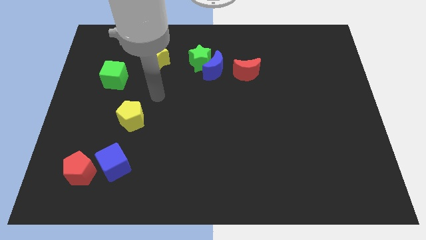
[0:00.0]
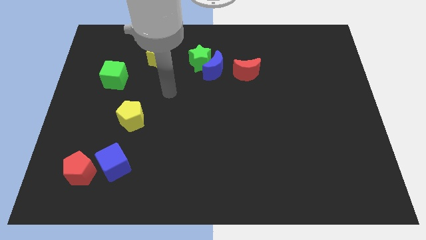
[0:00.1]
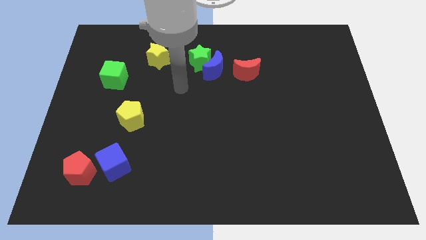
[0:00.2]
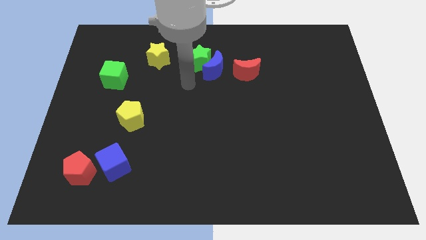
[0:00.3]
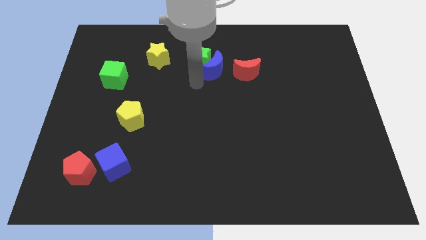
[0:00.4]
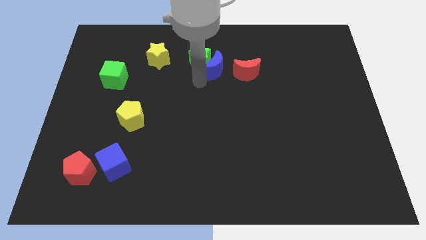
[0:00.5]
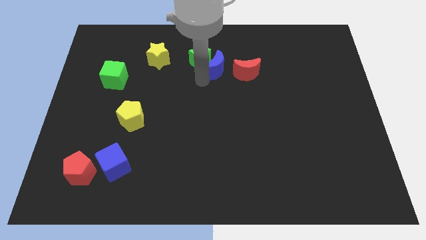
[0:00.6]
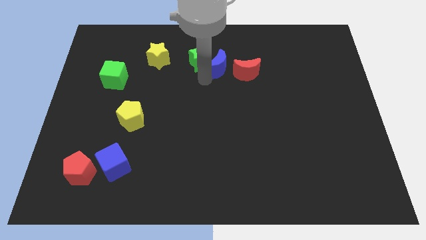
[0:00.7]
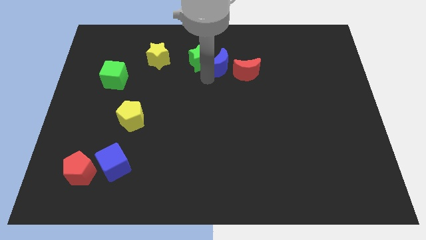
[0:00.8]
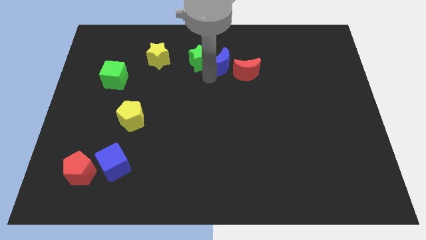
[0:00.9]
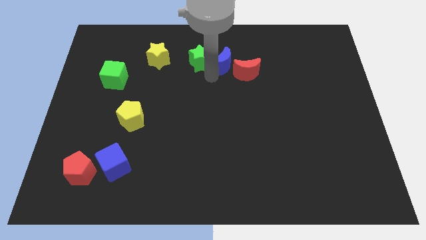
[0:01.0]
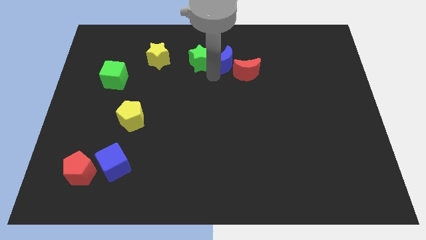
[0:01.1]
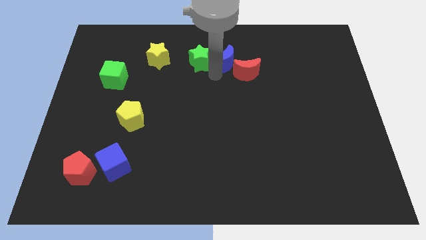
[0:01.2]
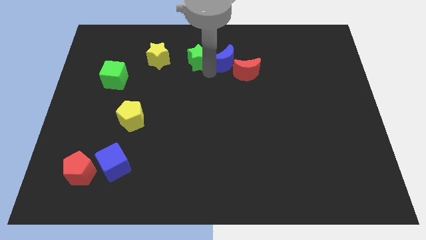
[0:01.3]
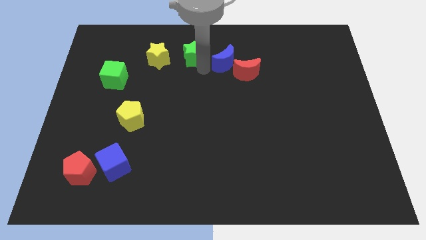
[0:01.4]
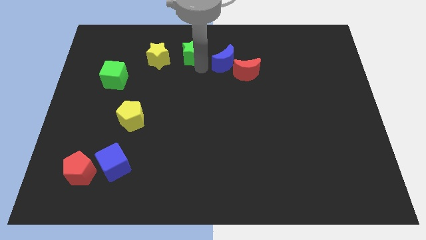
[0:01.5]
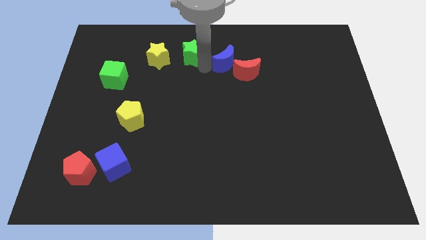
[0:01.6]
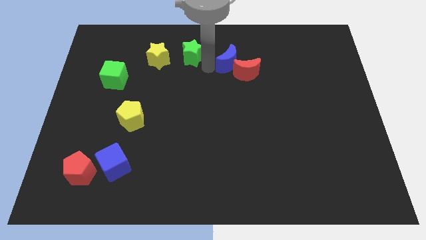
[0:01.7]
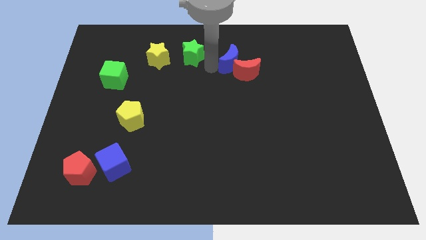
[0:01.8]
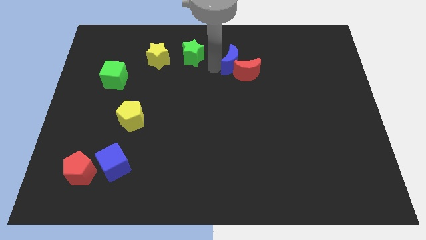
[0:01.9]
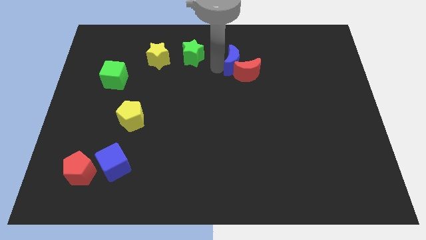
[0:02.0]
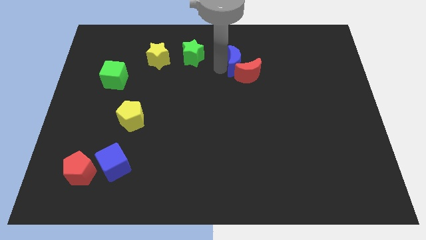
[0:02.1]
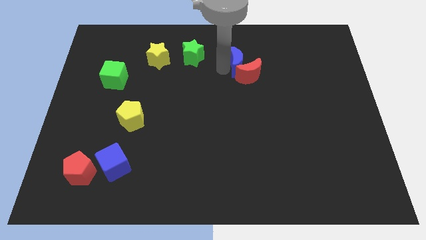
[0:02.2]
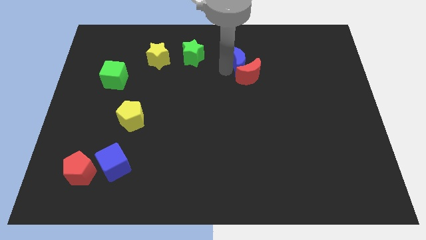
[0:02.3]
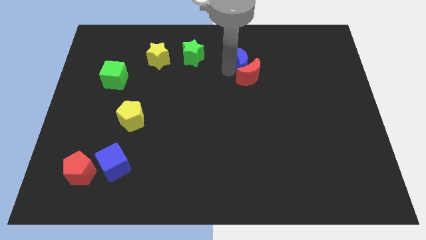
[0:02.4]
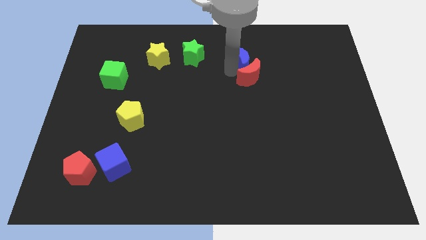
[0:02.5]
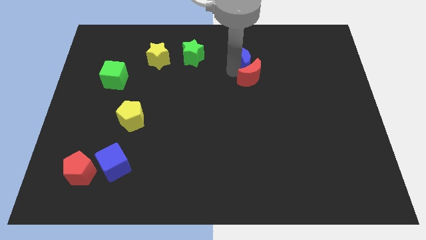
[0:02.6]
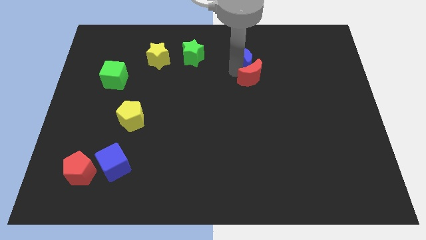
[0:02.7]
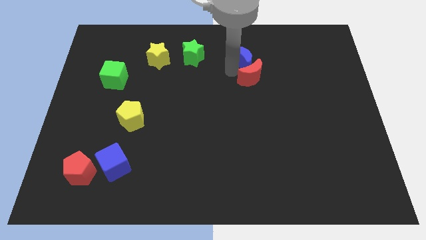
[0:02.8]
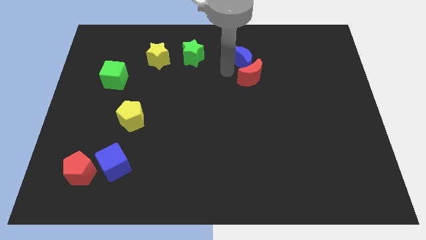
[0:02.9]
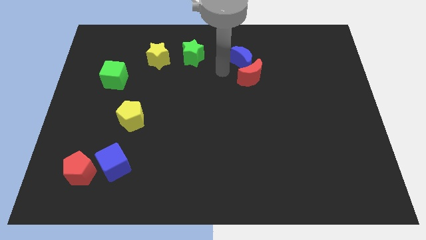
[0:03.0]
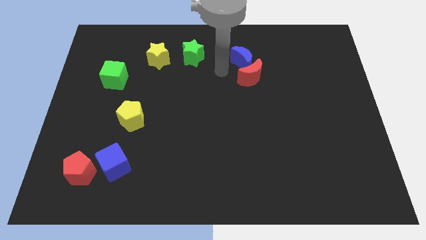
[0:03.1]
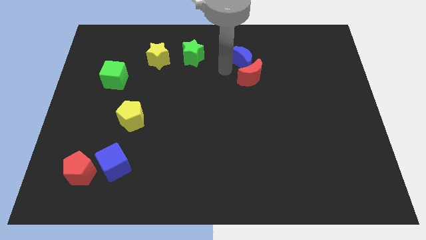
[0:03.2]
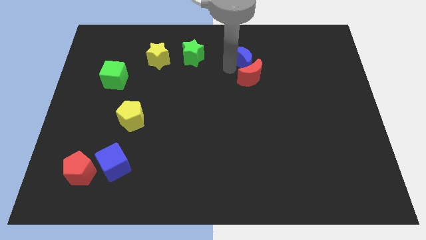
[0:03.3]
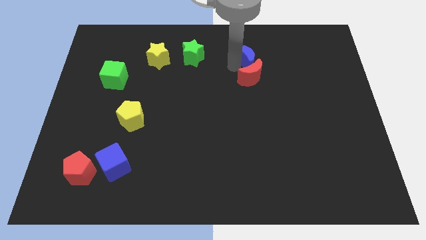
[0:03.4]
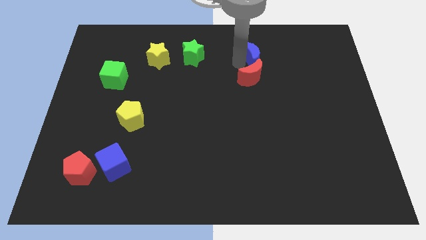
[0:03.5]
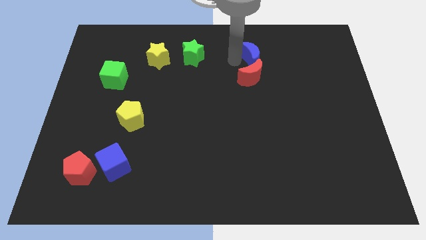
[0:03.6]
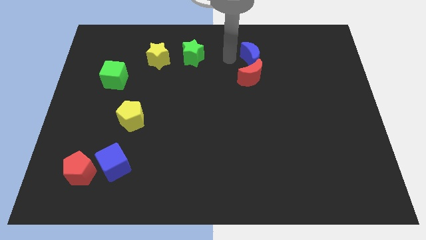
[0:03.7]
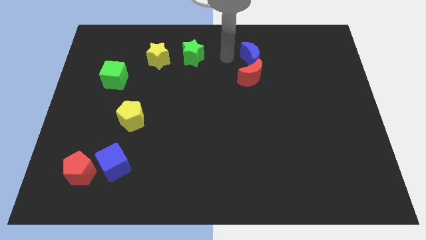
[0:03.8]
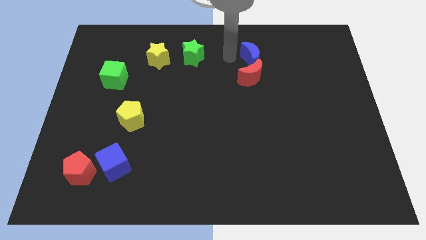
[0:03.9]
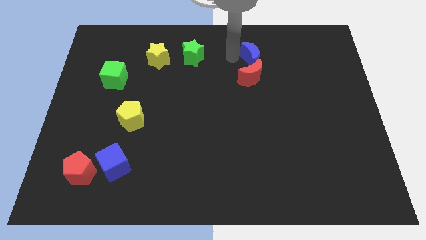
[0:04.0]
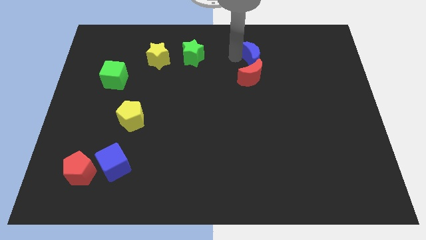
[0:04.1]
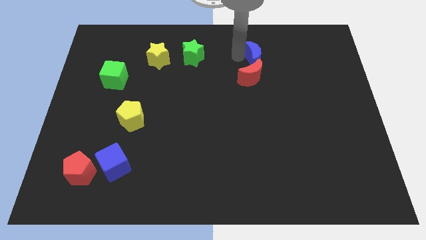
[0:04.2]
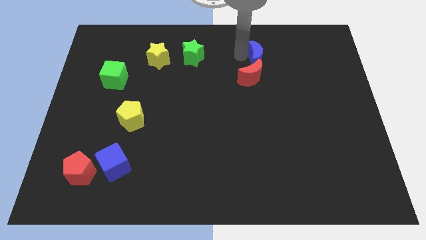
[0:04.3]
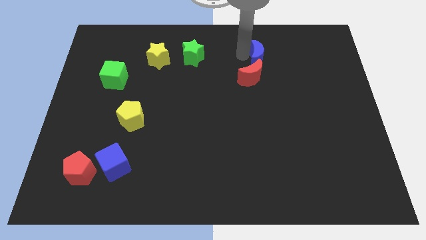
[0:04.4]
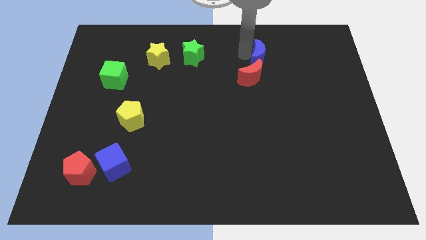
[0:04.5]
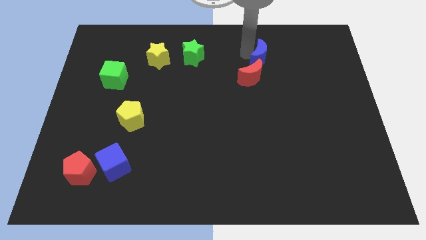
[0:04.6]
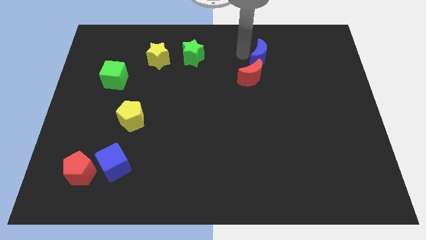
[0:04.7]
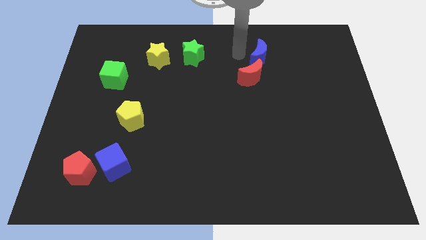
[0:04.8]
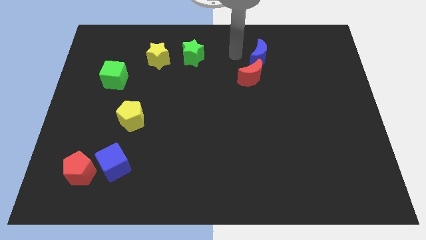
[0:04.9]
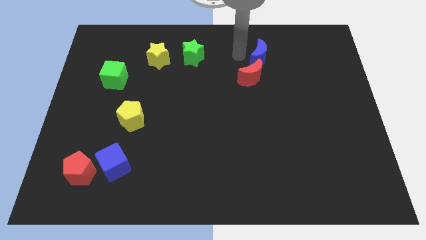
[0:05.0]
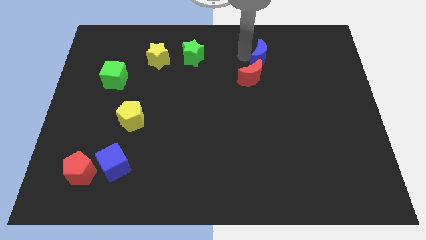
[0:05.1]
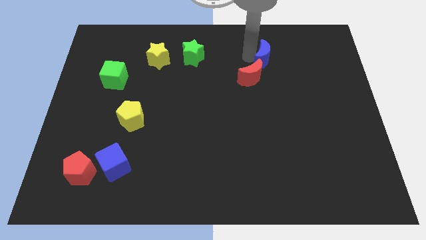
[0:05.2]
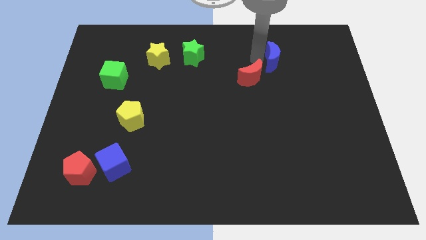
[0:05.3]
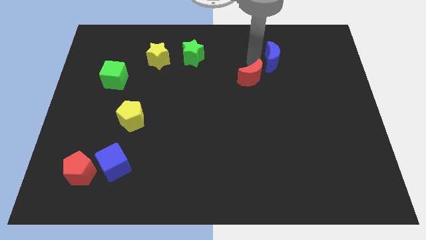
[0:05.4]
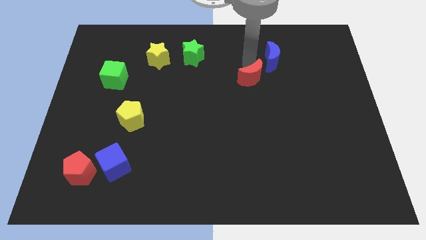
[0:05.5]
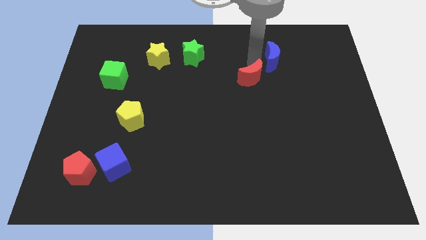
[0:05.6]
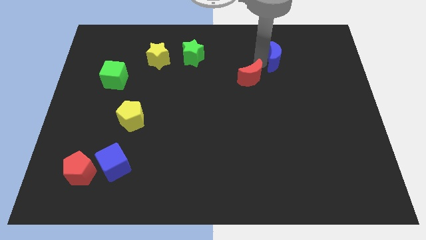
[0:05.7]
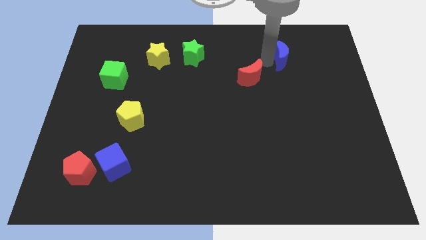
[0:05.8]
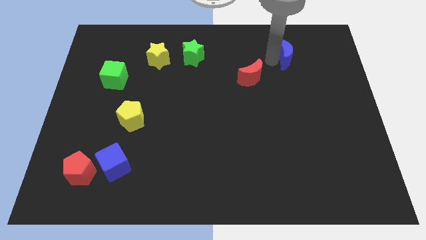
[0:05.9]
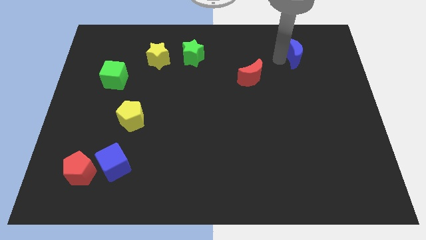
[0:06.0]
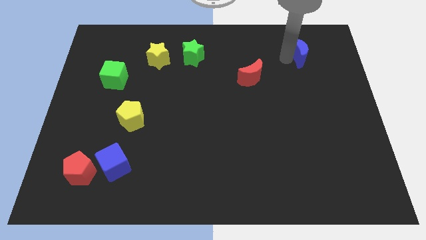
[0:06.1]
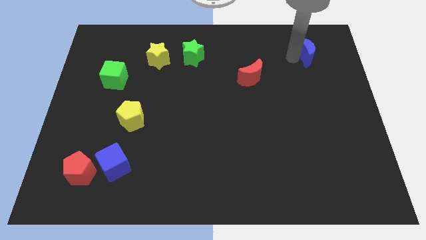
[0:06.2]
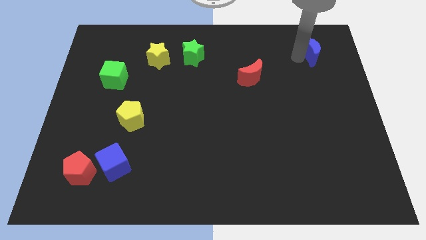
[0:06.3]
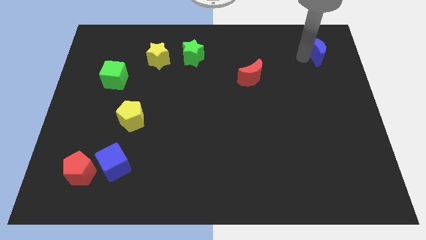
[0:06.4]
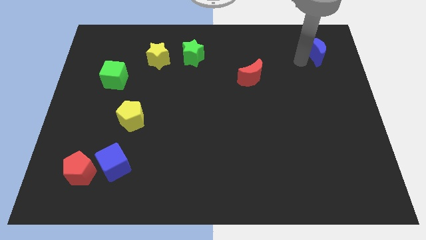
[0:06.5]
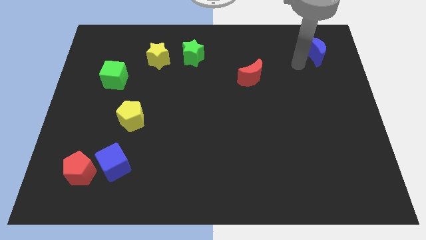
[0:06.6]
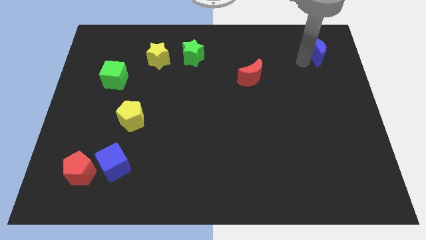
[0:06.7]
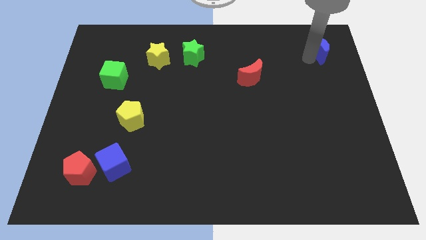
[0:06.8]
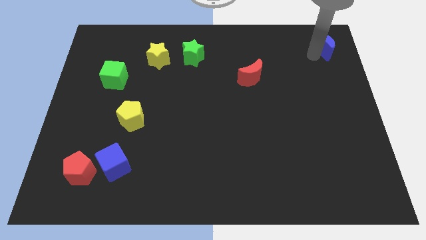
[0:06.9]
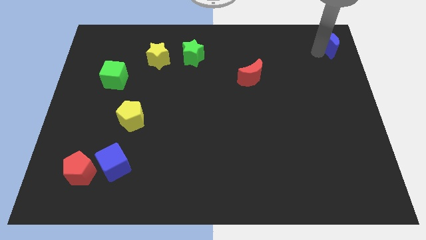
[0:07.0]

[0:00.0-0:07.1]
move the blue moon to the upper right corner
